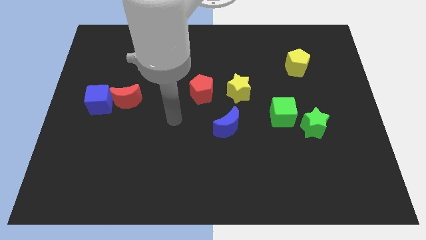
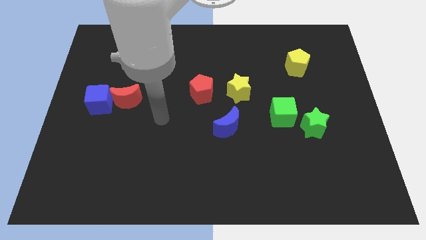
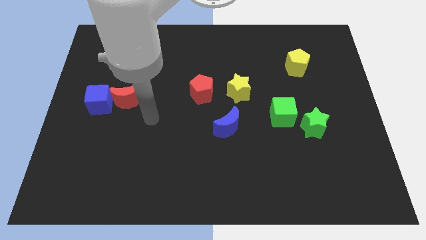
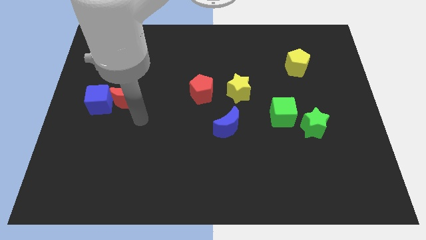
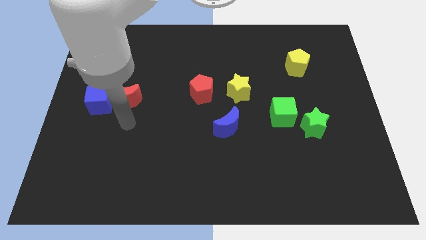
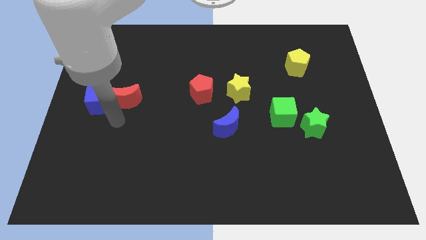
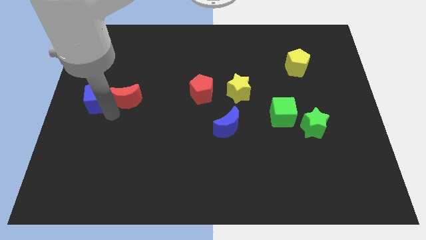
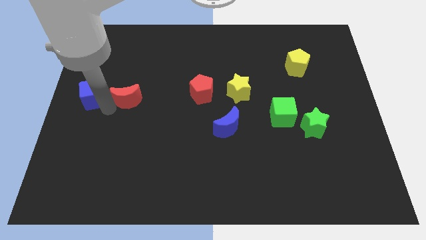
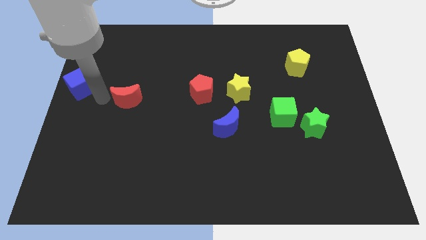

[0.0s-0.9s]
move the red moon away from the blue cube

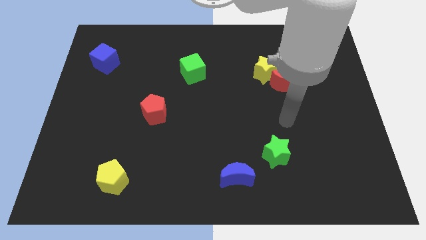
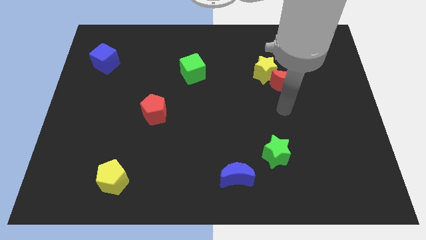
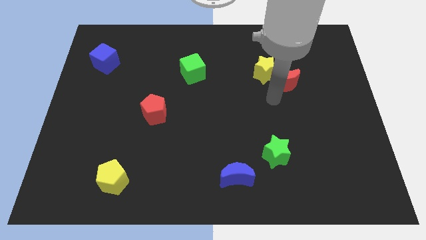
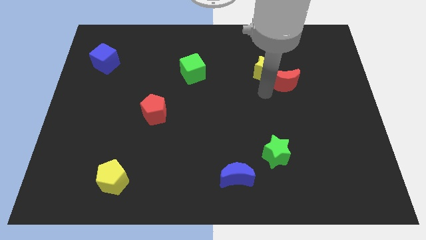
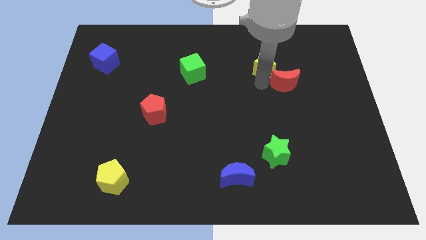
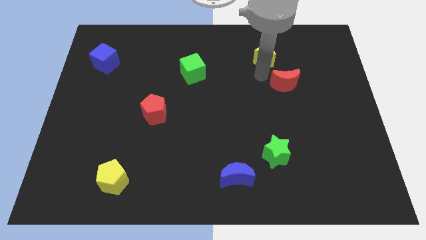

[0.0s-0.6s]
separate the red moon from the yellow star

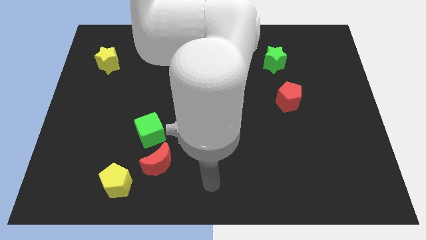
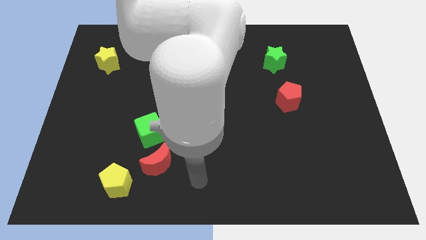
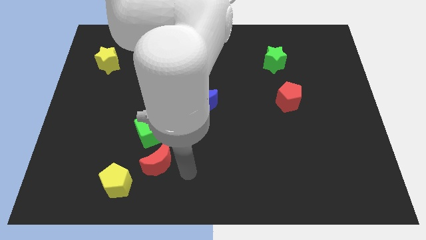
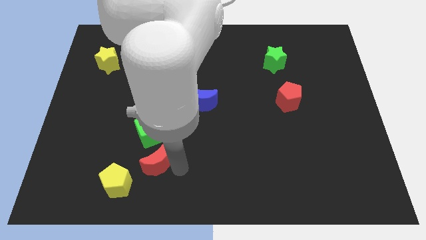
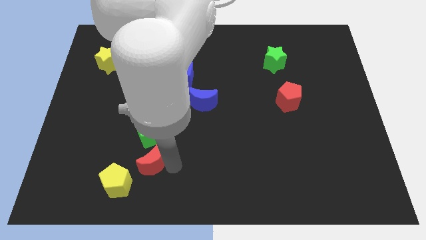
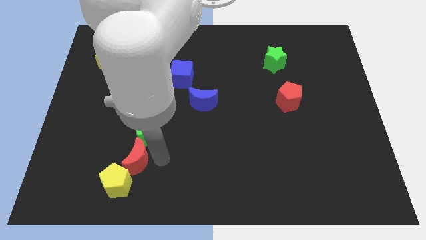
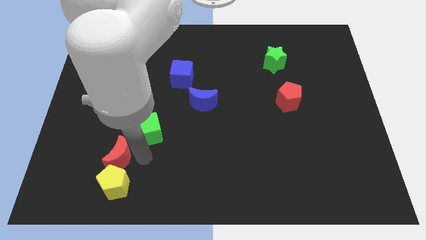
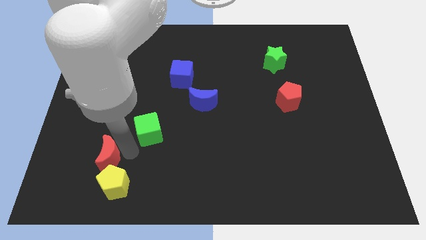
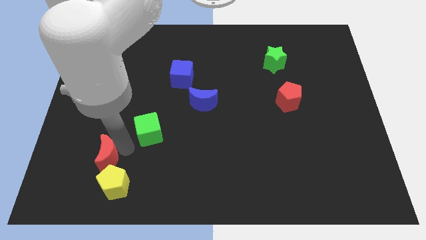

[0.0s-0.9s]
move the green cube away from the red moon

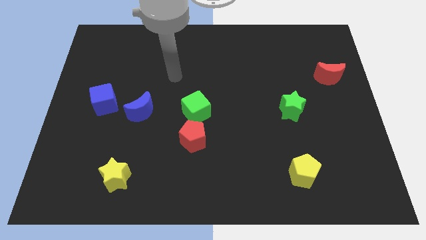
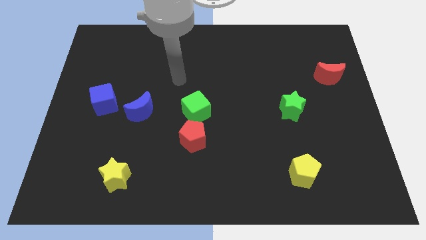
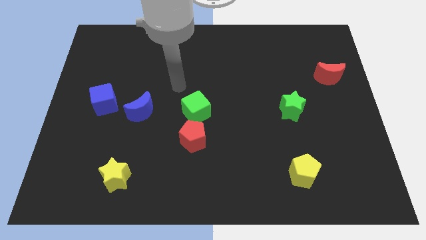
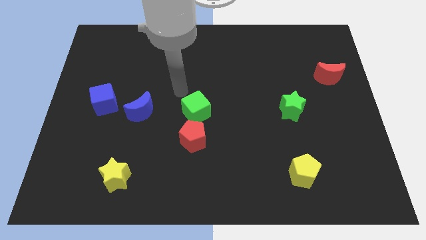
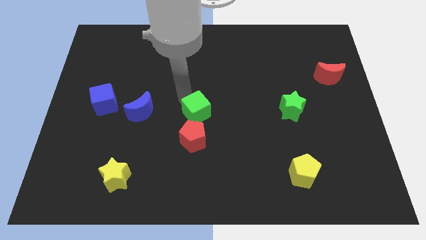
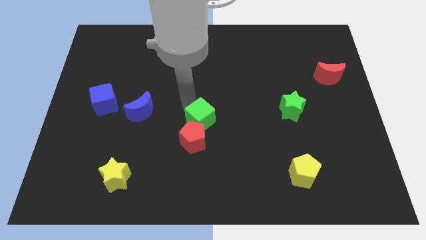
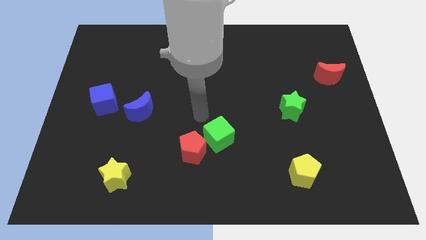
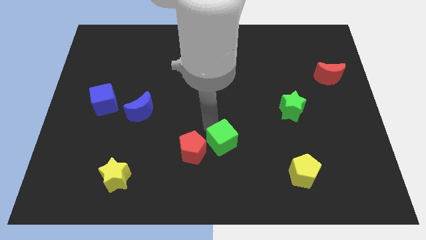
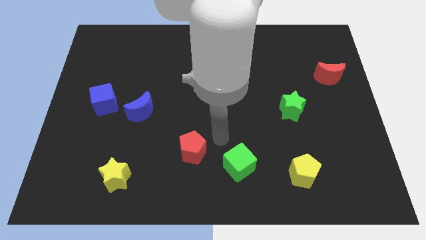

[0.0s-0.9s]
pull the red pentagon apart from the green cube

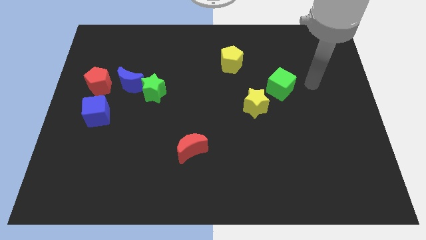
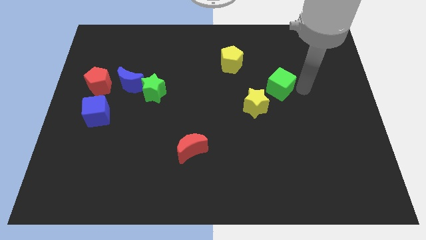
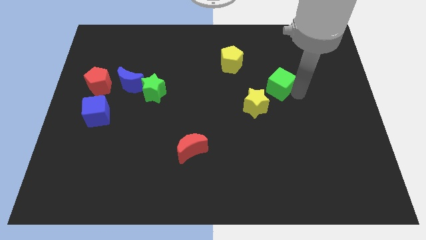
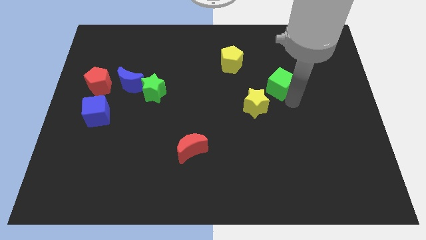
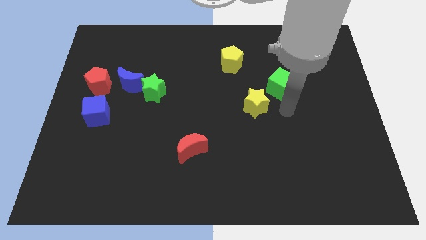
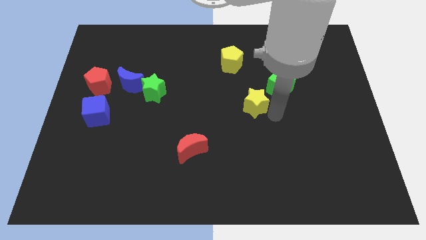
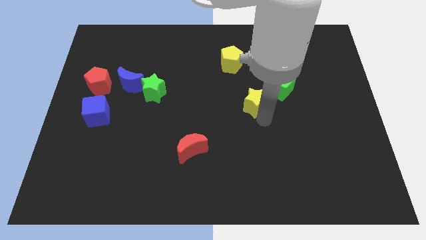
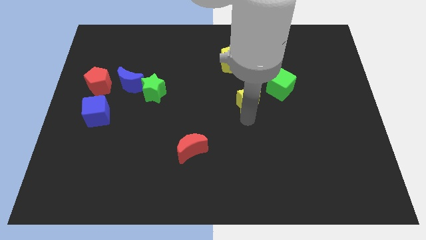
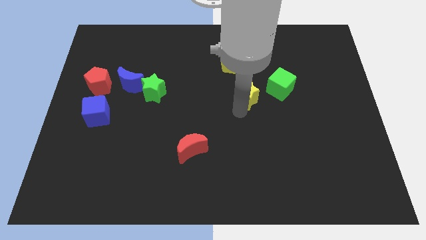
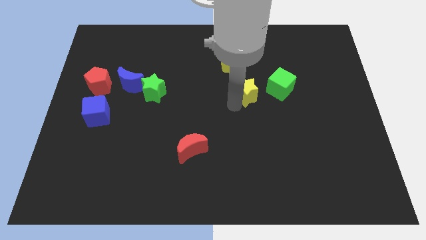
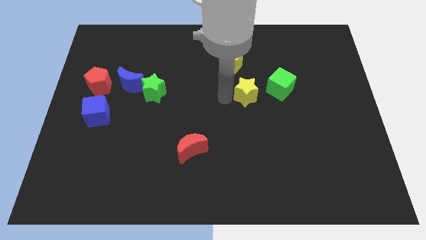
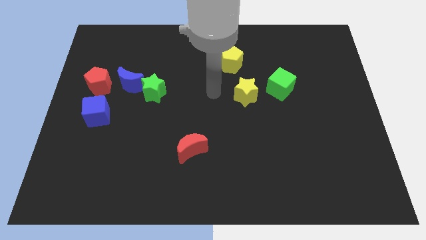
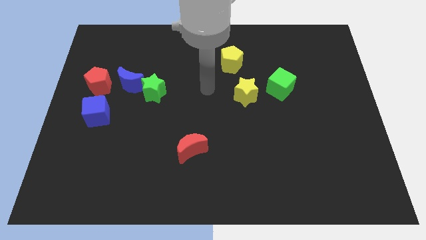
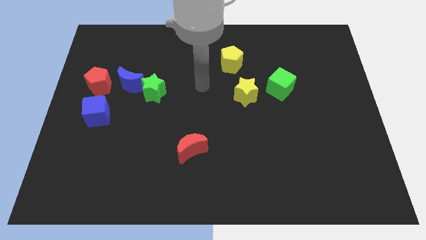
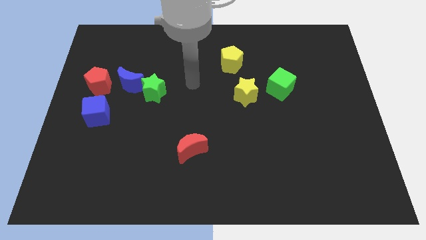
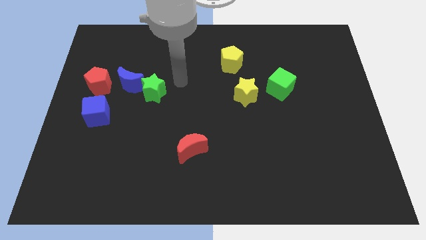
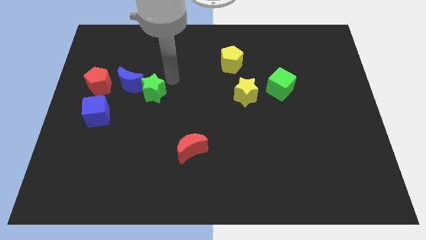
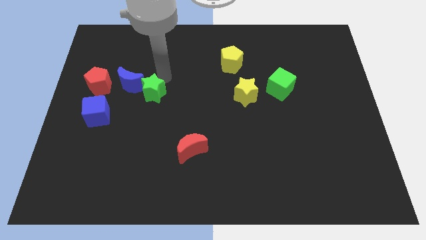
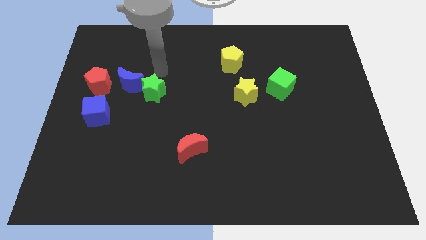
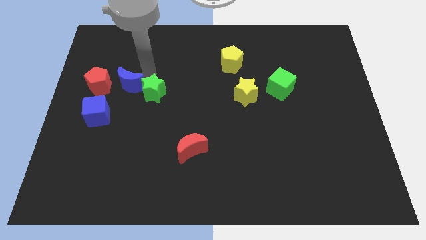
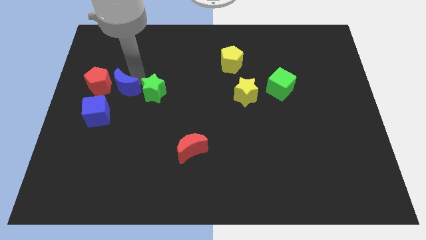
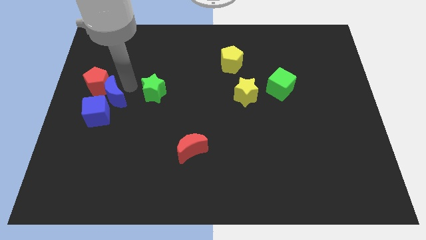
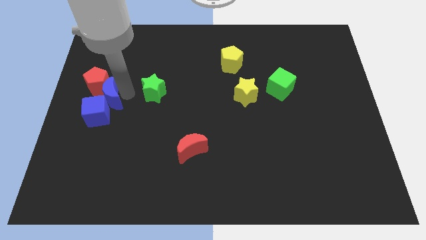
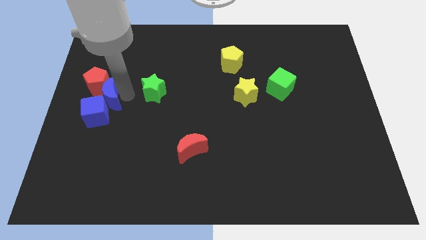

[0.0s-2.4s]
pull the green star apart from the blue moon

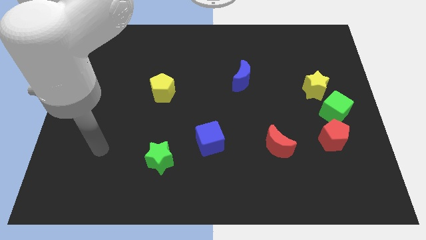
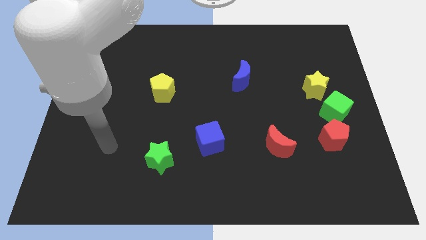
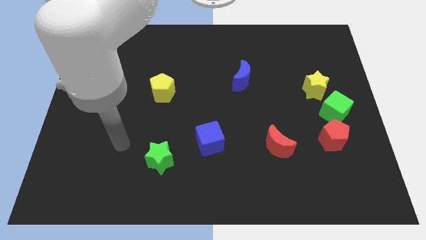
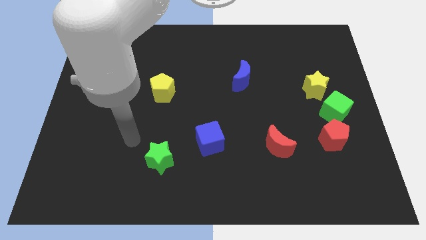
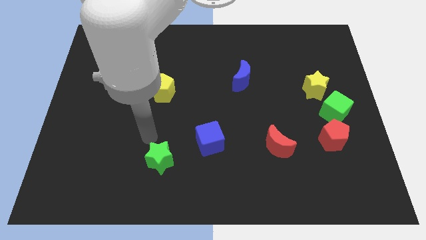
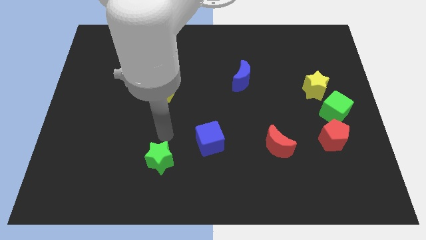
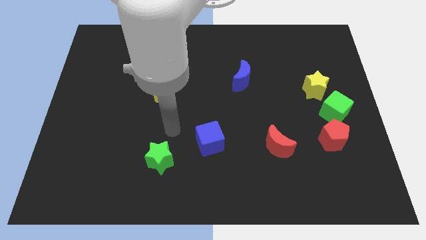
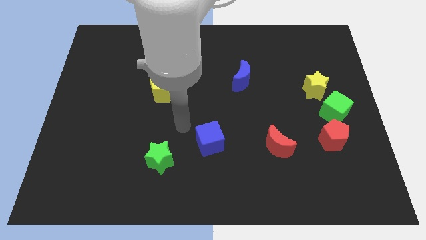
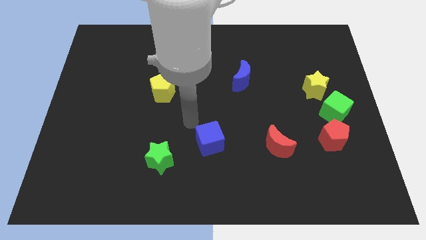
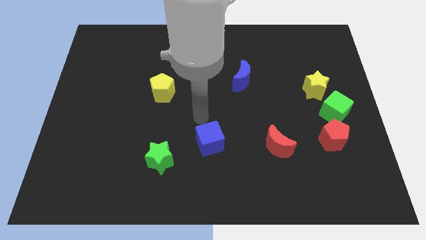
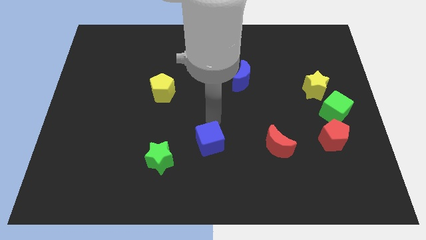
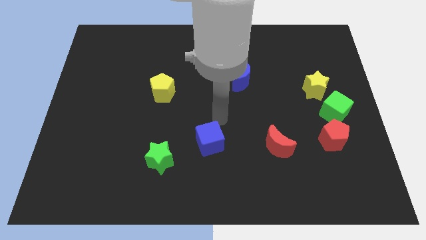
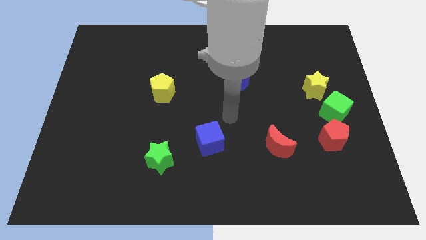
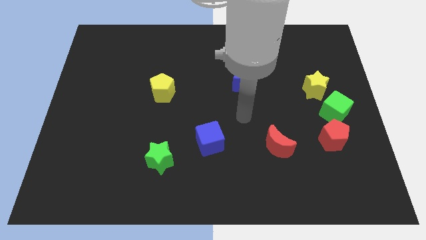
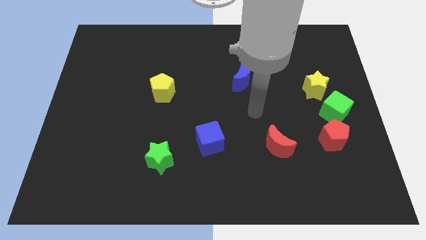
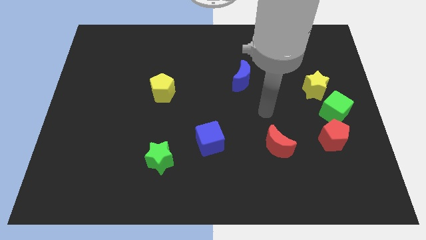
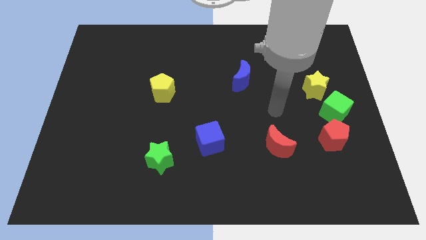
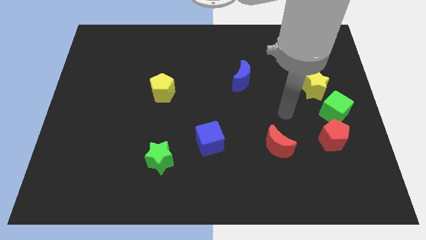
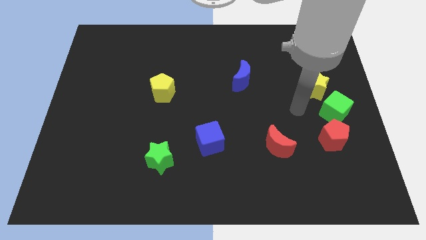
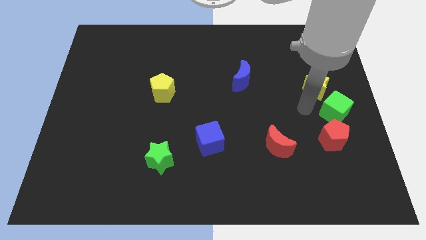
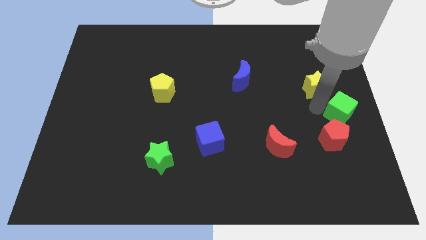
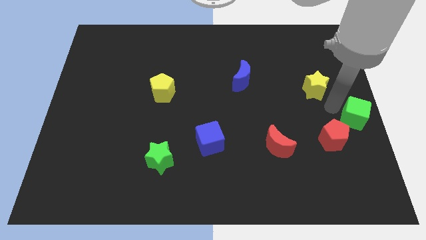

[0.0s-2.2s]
move the yellow star away from the green cube

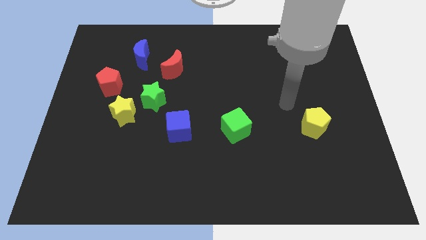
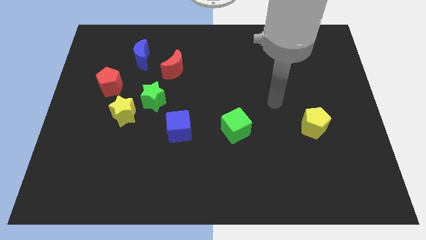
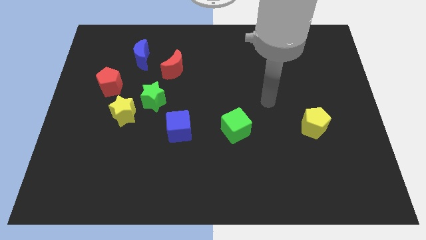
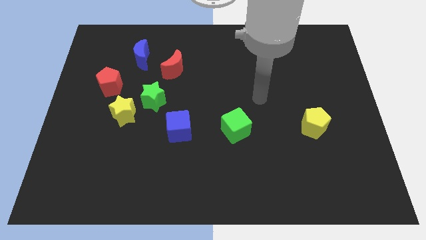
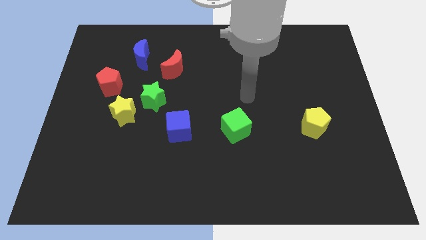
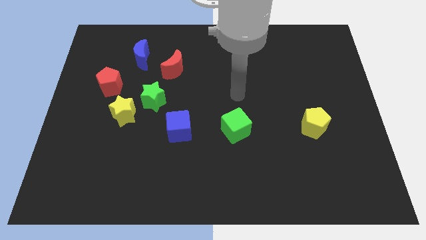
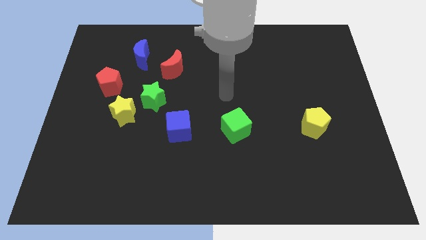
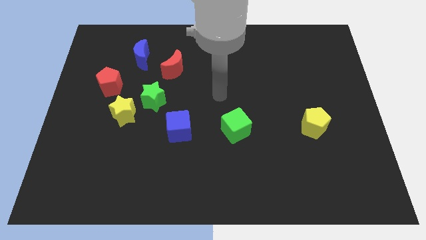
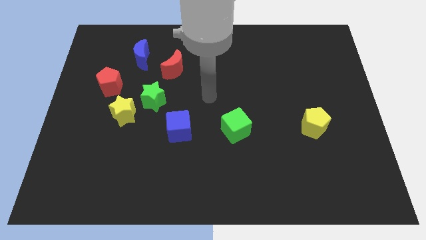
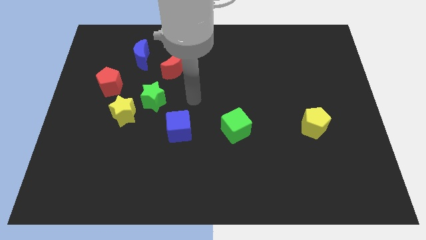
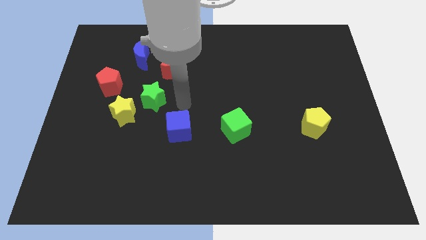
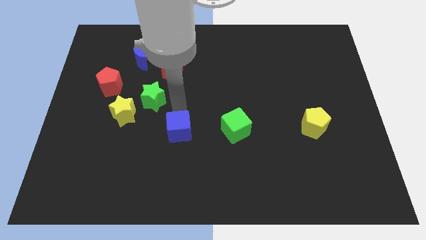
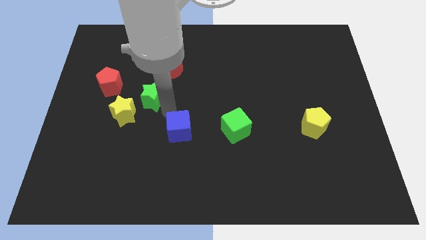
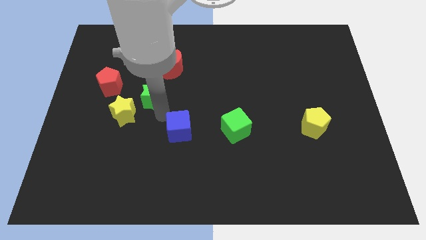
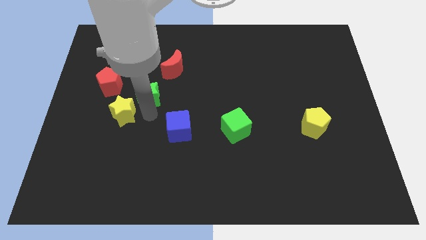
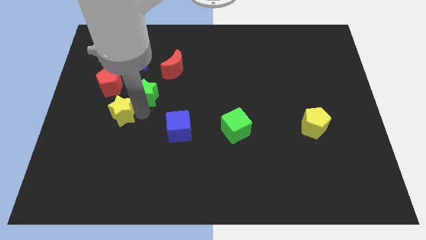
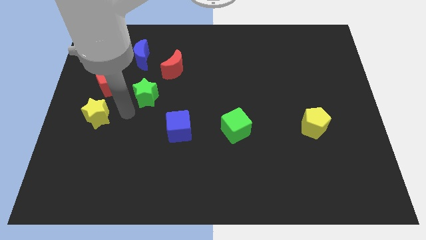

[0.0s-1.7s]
move the green star away from the yellow star
